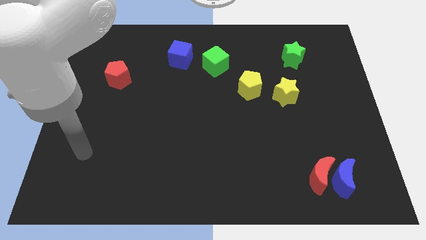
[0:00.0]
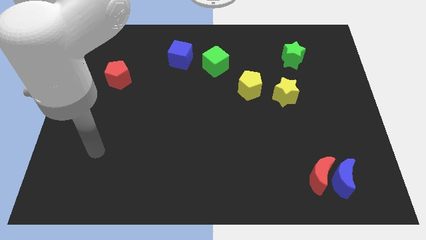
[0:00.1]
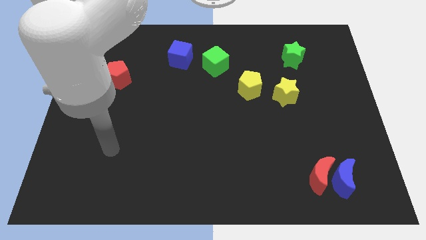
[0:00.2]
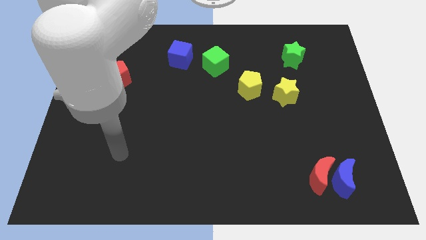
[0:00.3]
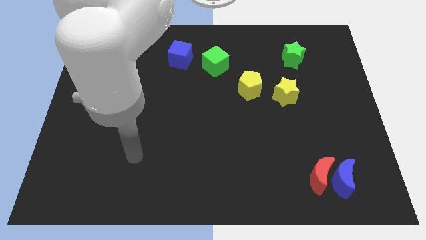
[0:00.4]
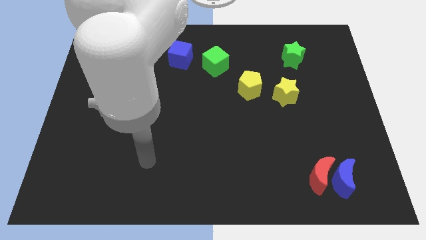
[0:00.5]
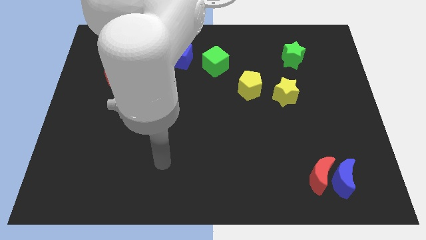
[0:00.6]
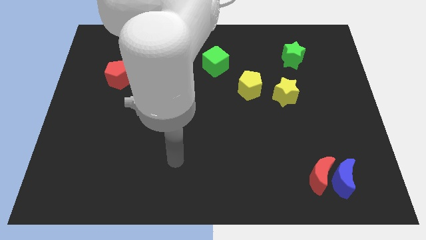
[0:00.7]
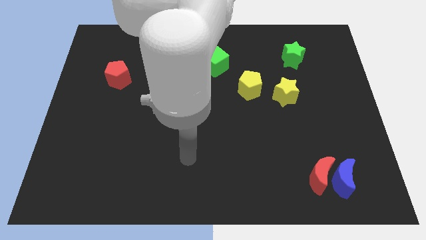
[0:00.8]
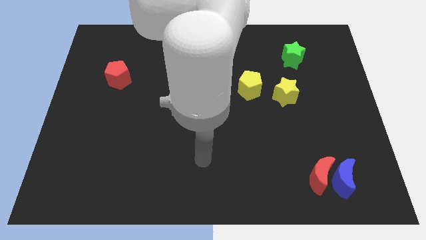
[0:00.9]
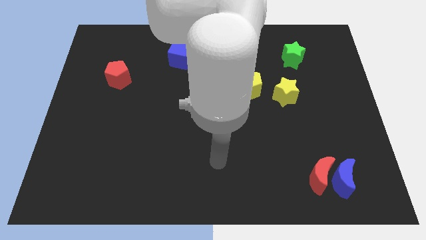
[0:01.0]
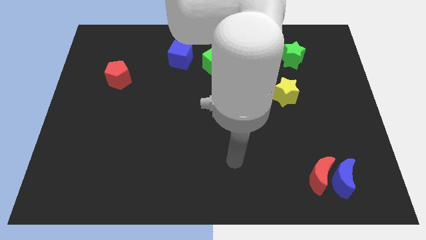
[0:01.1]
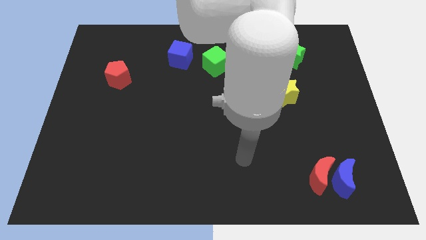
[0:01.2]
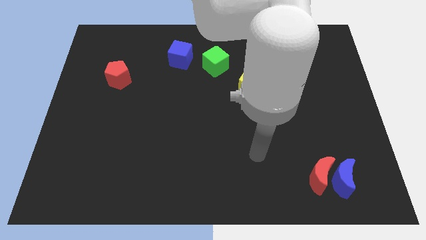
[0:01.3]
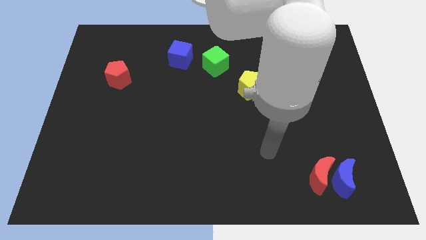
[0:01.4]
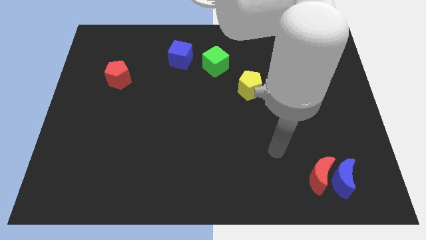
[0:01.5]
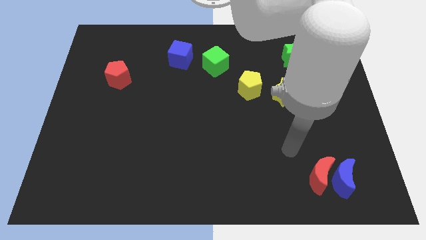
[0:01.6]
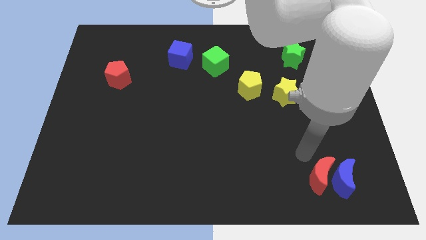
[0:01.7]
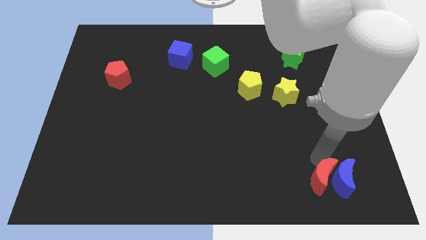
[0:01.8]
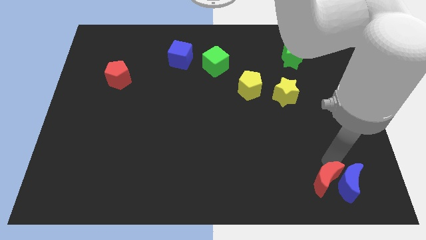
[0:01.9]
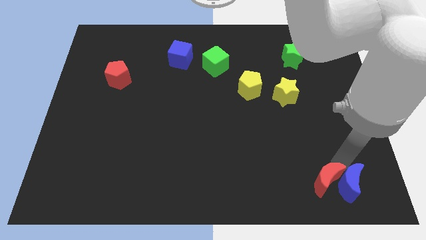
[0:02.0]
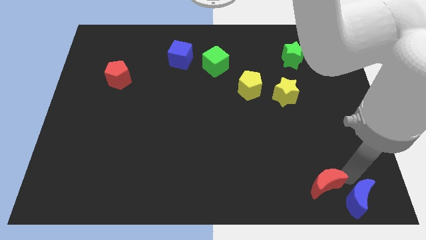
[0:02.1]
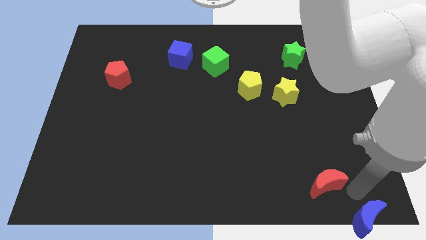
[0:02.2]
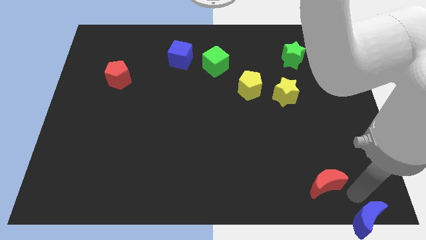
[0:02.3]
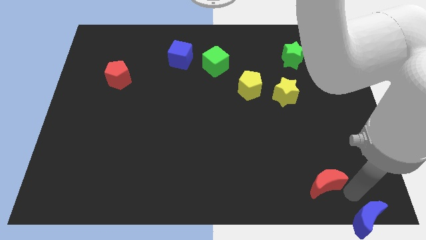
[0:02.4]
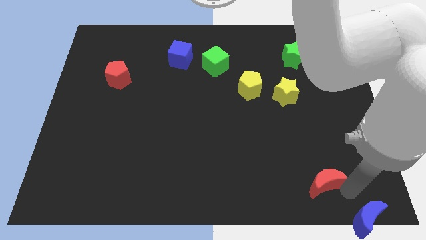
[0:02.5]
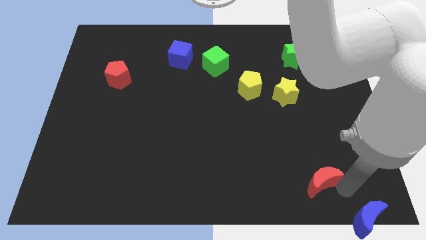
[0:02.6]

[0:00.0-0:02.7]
separate the red moon from the blue moon

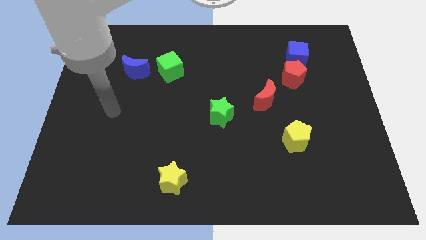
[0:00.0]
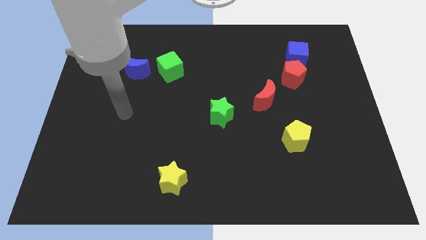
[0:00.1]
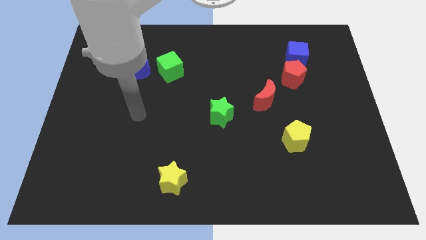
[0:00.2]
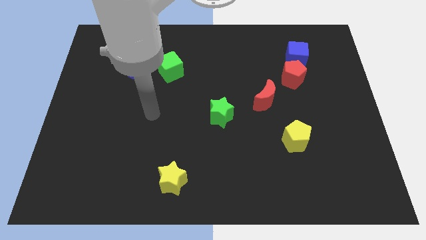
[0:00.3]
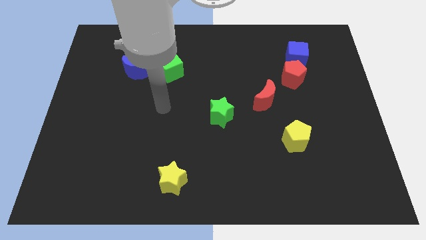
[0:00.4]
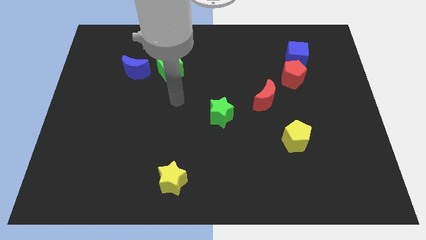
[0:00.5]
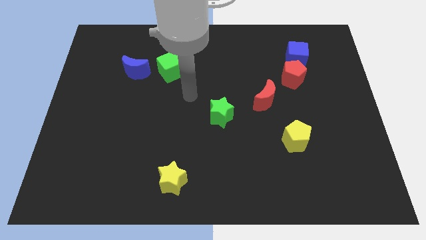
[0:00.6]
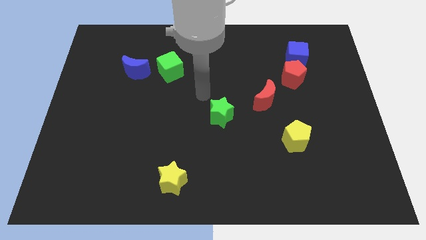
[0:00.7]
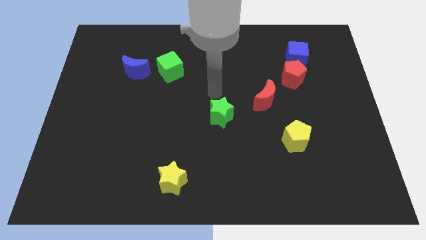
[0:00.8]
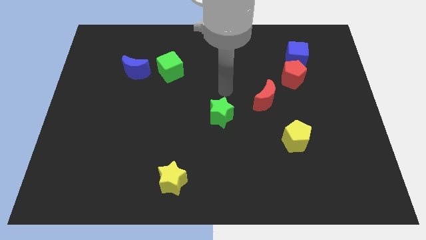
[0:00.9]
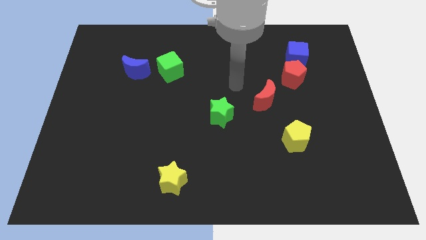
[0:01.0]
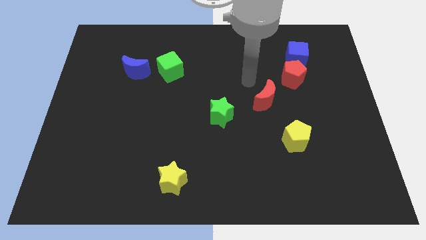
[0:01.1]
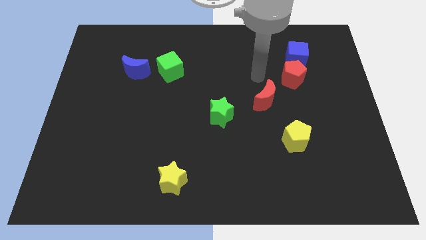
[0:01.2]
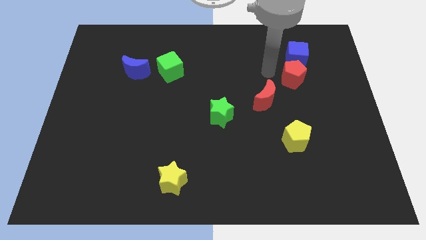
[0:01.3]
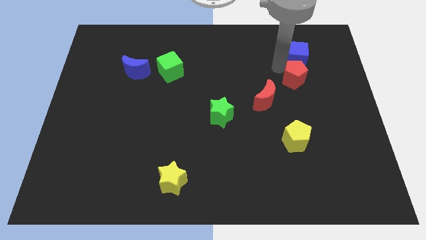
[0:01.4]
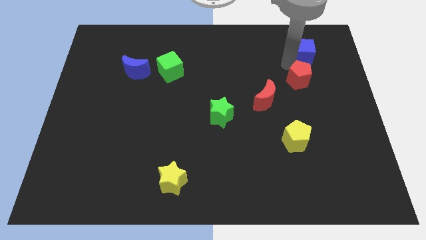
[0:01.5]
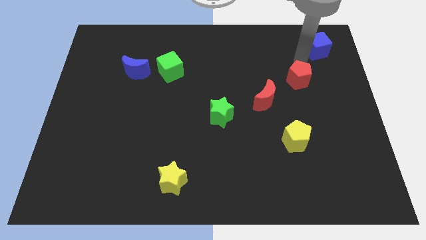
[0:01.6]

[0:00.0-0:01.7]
move the red pentagon away from the blue cube

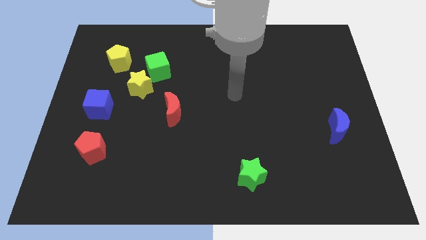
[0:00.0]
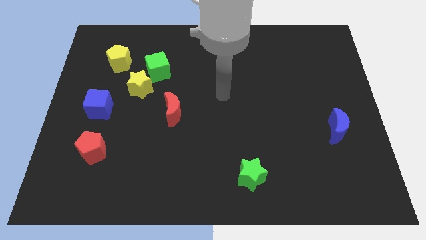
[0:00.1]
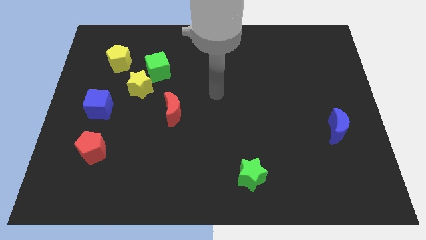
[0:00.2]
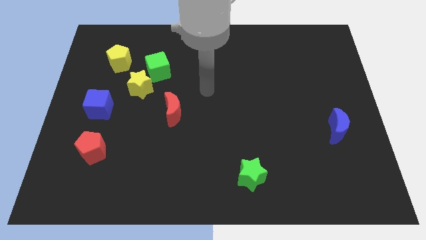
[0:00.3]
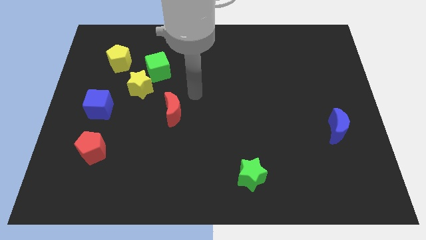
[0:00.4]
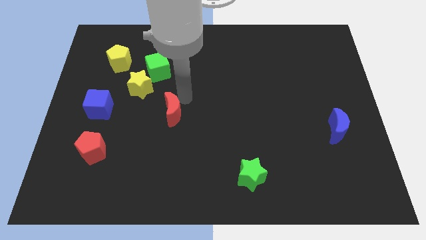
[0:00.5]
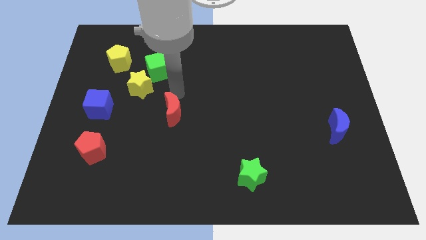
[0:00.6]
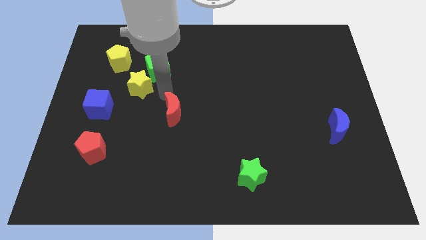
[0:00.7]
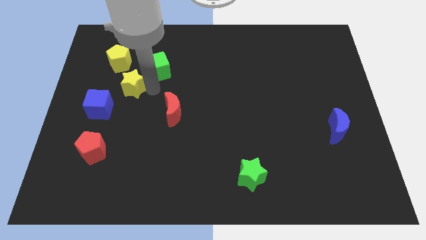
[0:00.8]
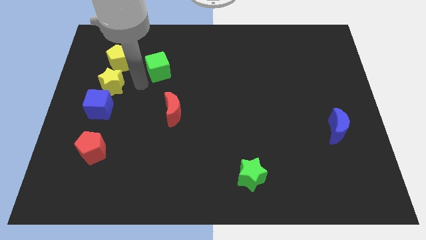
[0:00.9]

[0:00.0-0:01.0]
pull the green cube apart from the yellow star

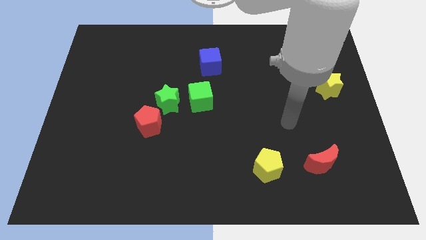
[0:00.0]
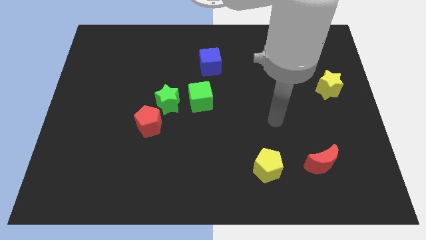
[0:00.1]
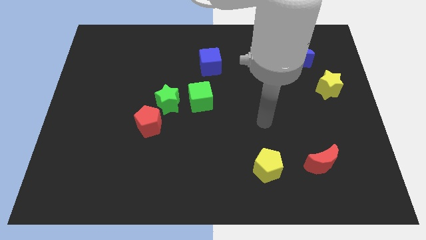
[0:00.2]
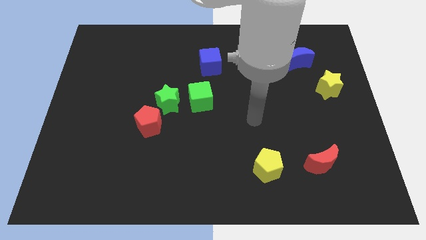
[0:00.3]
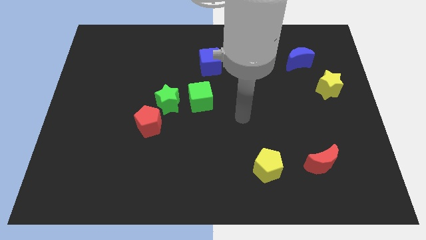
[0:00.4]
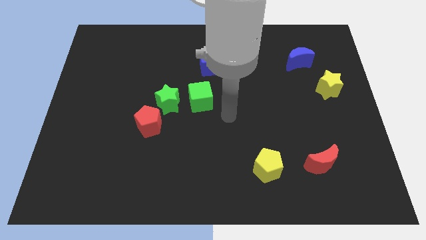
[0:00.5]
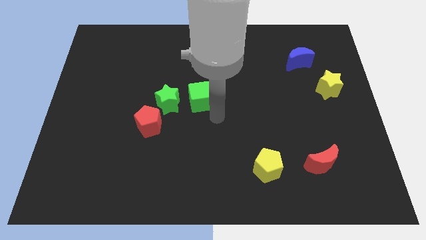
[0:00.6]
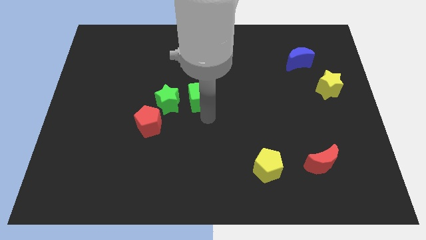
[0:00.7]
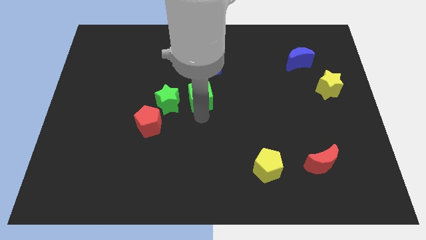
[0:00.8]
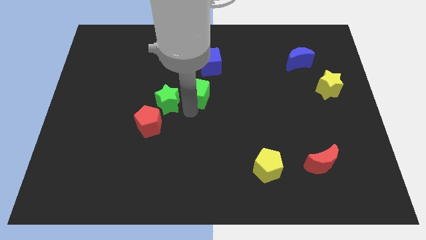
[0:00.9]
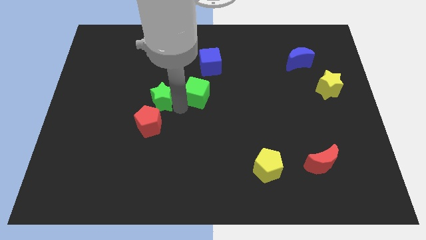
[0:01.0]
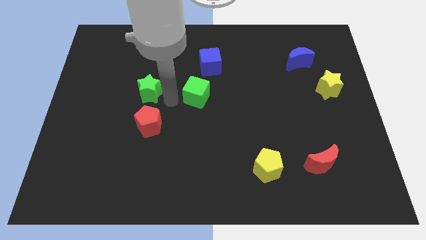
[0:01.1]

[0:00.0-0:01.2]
separate the green cube from the green star

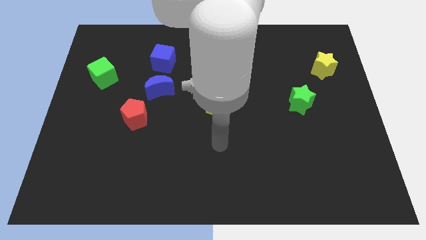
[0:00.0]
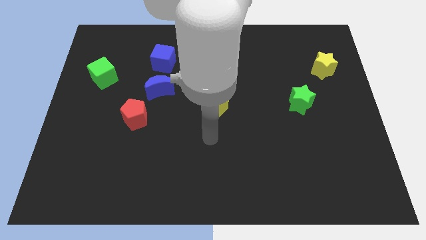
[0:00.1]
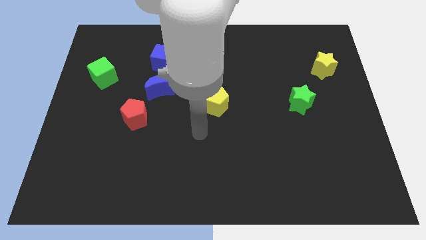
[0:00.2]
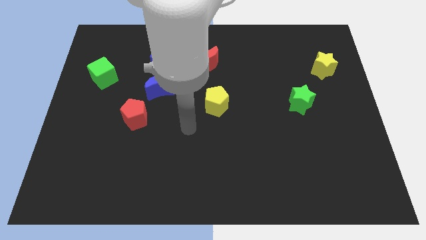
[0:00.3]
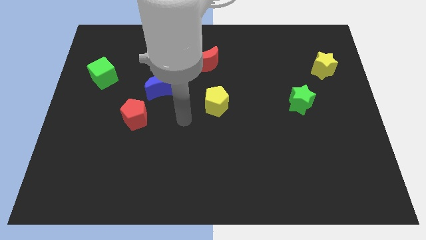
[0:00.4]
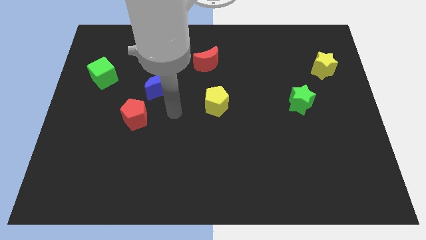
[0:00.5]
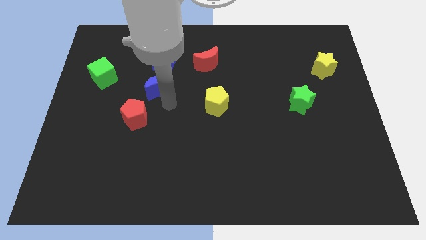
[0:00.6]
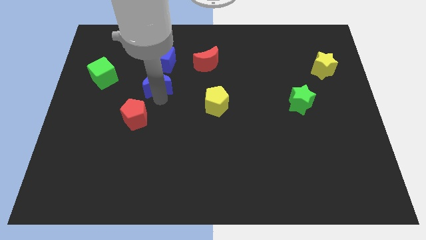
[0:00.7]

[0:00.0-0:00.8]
separate the red pentagon from the blue moon

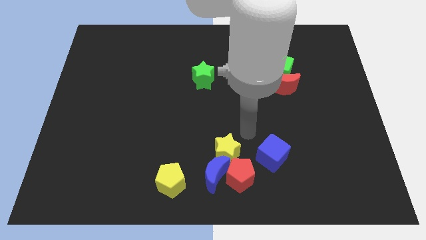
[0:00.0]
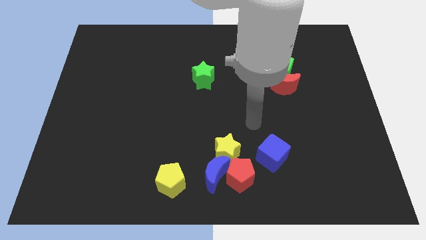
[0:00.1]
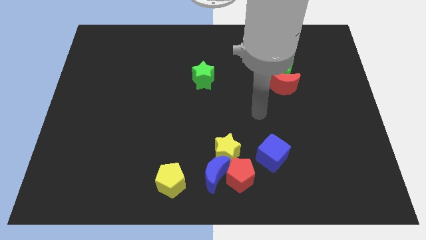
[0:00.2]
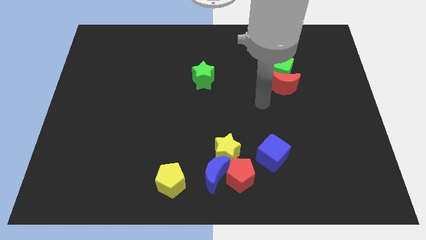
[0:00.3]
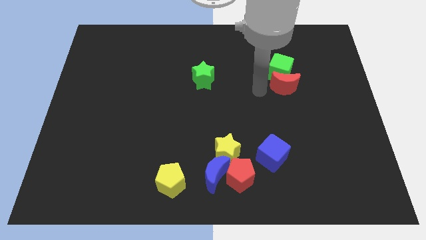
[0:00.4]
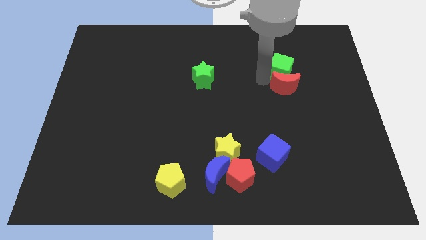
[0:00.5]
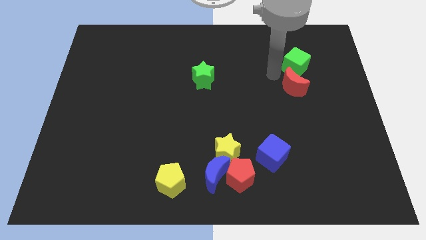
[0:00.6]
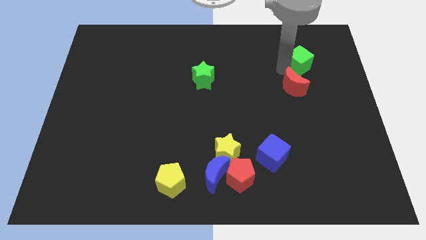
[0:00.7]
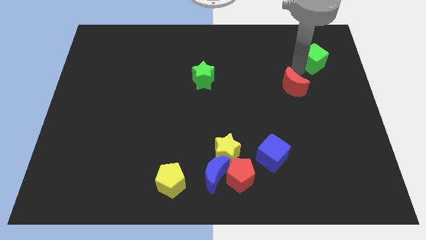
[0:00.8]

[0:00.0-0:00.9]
pull the red moon apart from the green cube

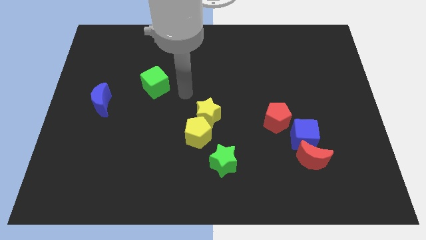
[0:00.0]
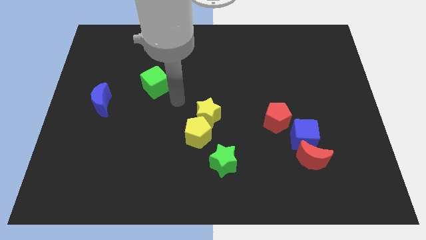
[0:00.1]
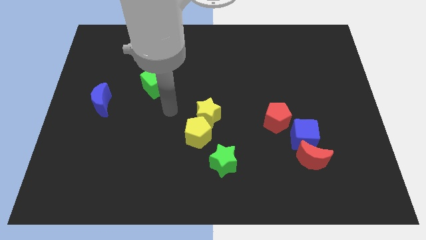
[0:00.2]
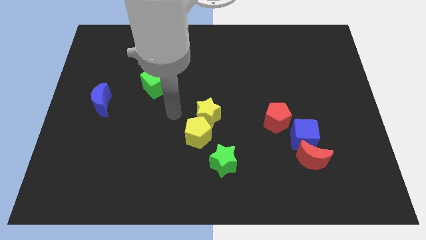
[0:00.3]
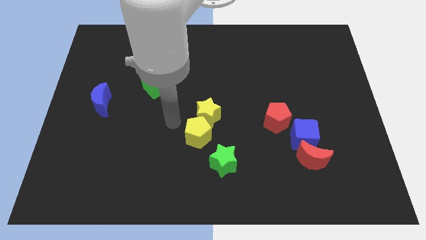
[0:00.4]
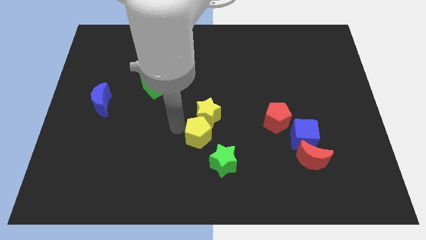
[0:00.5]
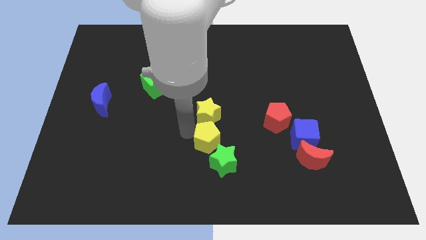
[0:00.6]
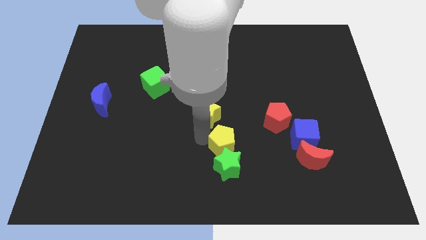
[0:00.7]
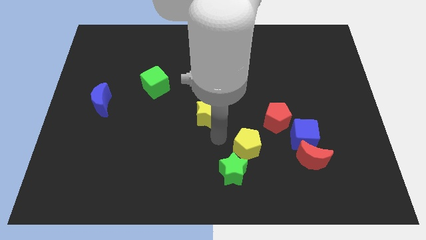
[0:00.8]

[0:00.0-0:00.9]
pull the yellow star apart from the yellow pentagon
